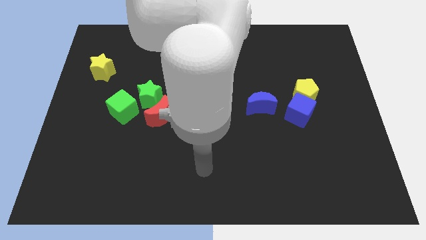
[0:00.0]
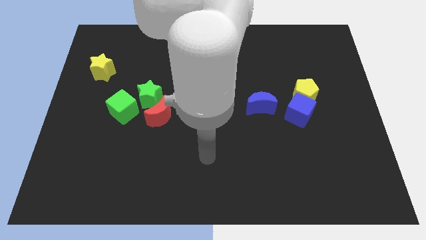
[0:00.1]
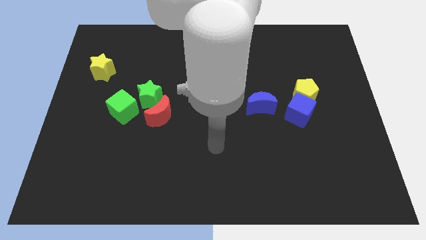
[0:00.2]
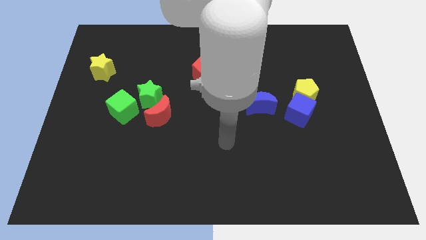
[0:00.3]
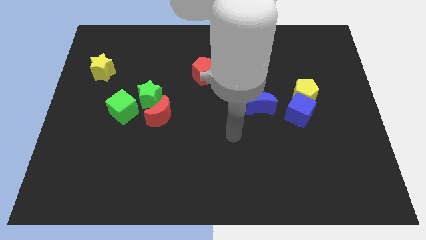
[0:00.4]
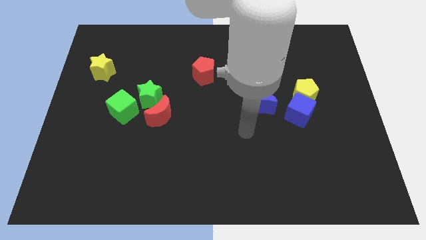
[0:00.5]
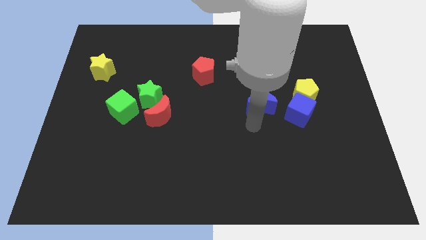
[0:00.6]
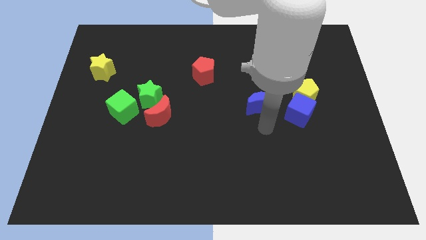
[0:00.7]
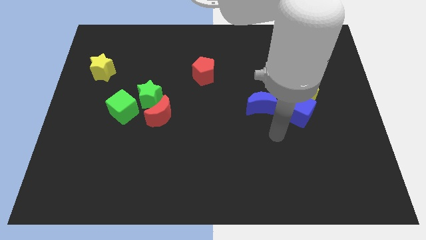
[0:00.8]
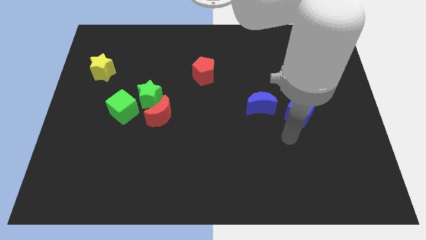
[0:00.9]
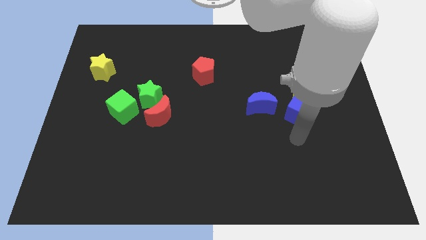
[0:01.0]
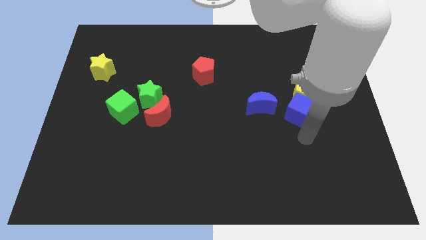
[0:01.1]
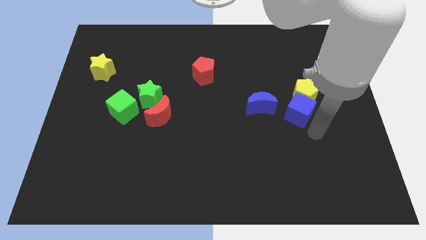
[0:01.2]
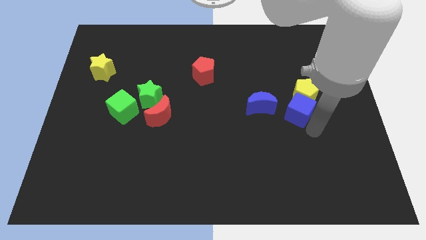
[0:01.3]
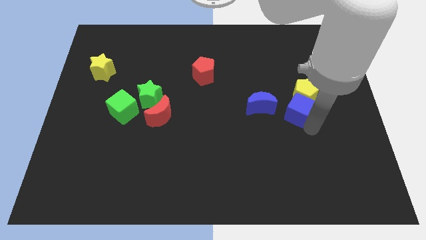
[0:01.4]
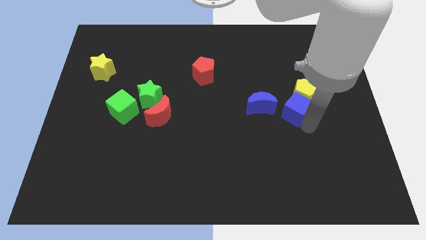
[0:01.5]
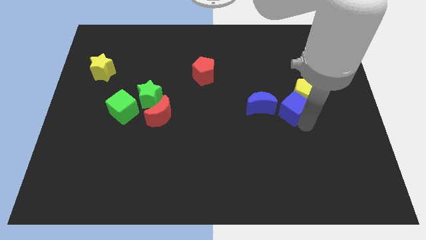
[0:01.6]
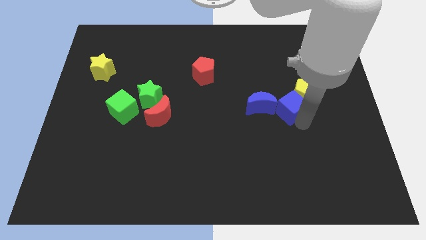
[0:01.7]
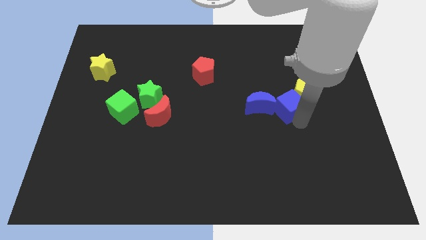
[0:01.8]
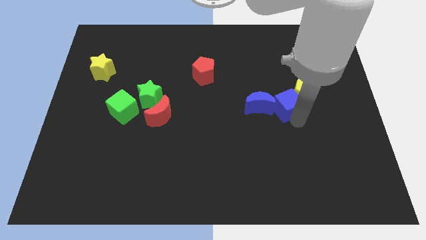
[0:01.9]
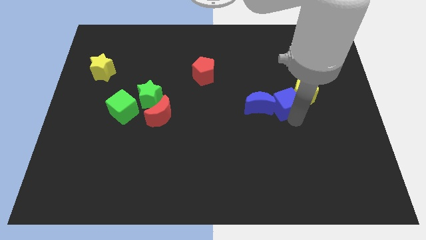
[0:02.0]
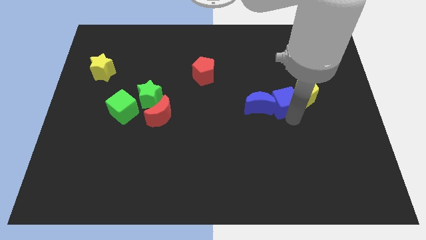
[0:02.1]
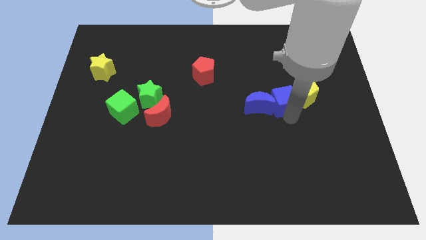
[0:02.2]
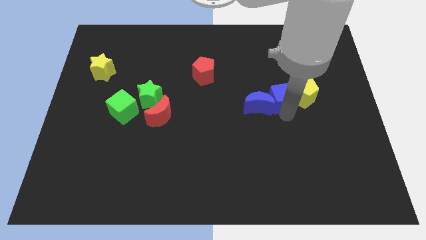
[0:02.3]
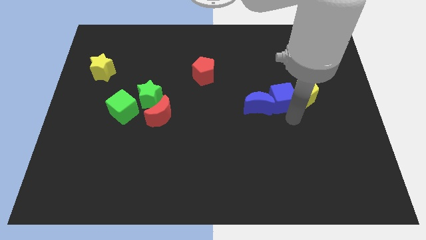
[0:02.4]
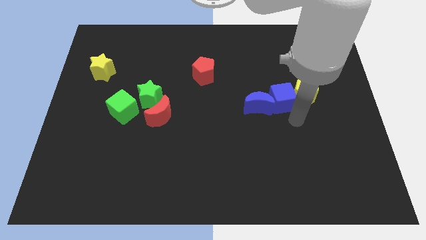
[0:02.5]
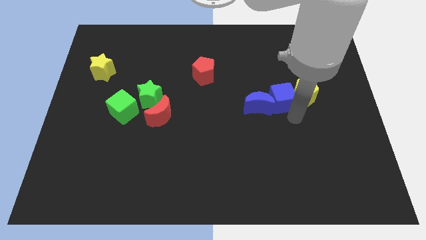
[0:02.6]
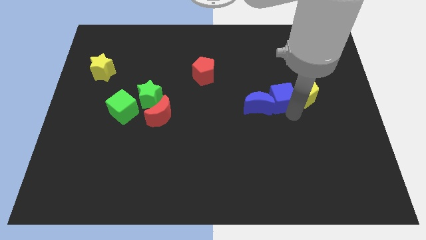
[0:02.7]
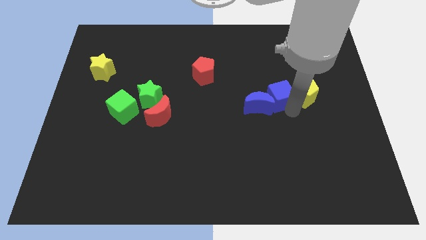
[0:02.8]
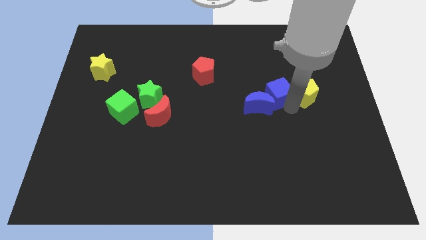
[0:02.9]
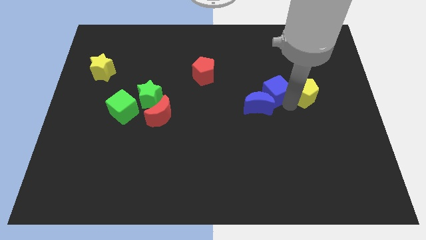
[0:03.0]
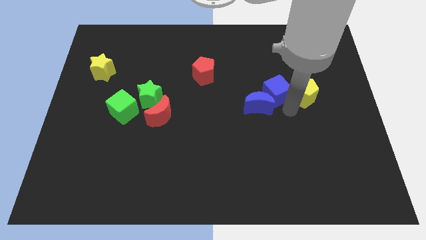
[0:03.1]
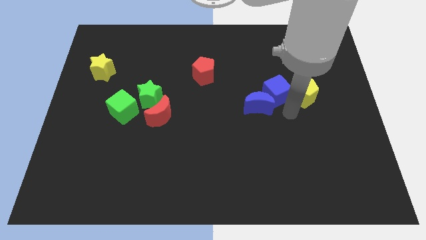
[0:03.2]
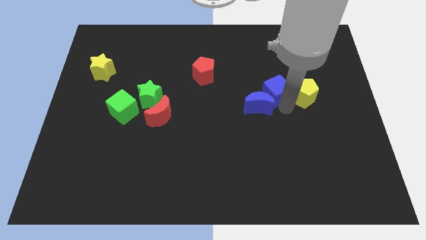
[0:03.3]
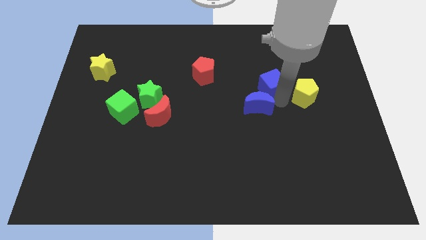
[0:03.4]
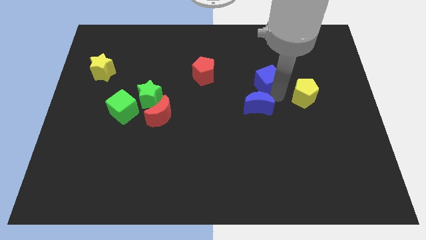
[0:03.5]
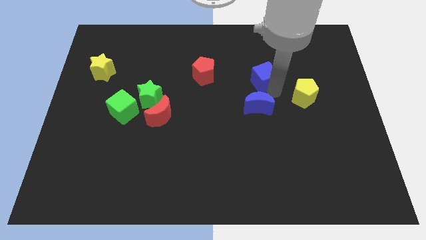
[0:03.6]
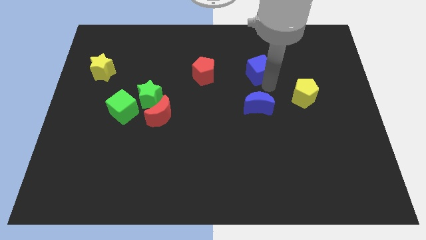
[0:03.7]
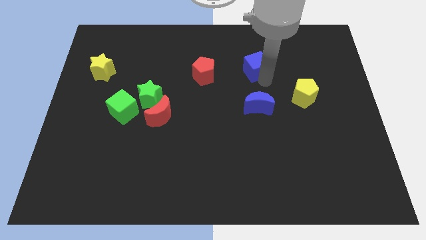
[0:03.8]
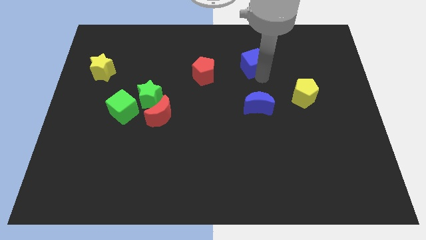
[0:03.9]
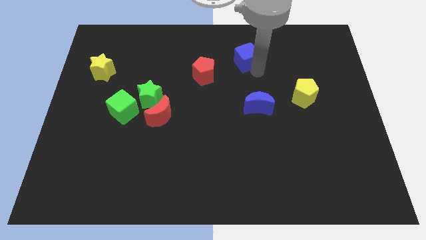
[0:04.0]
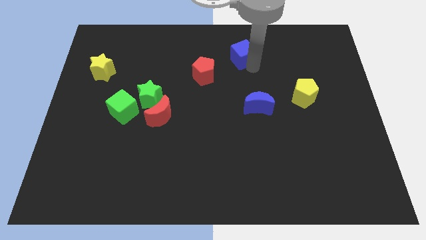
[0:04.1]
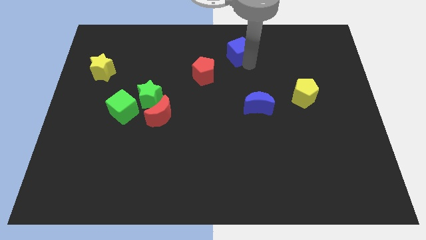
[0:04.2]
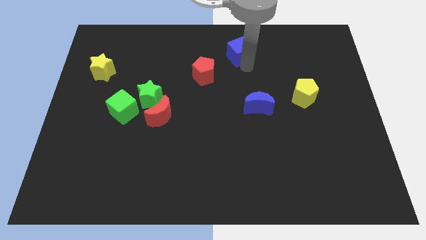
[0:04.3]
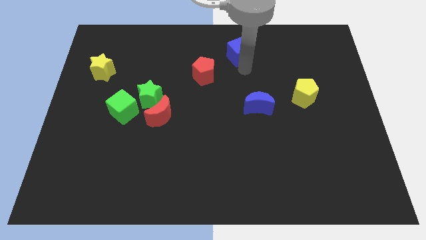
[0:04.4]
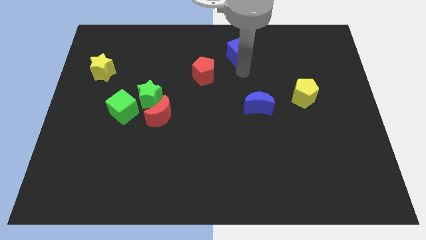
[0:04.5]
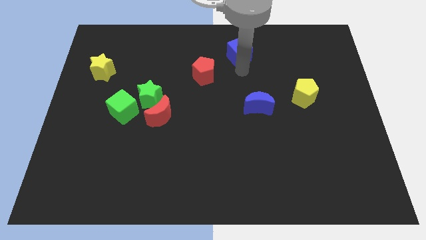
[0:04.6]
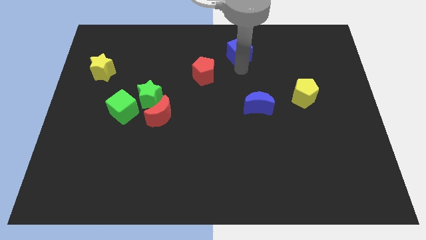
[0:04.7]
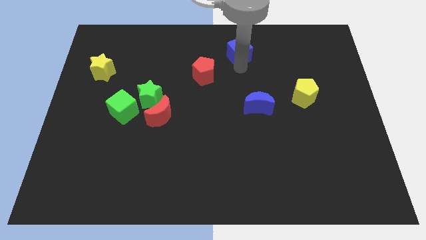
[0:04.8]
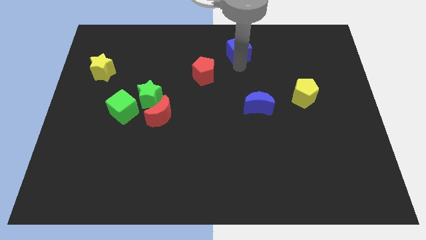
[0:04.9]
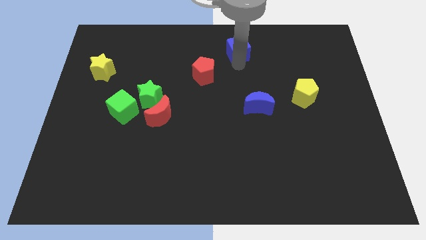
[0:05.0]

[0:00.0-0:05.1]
slide the blue cube to the top

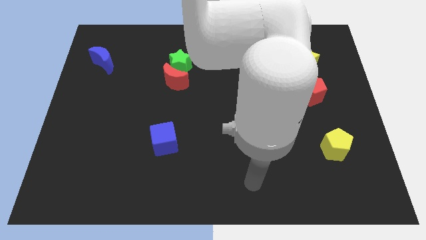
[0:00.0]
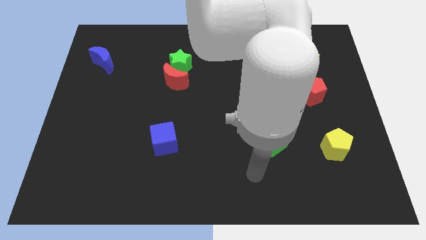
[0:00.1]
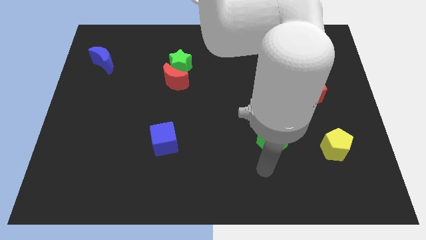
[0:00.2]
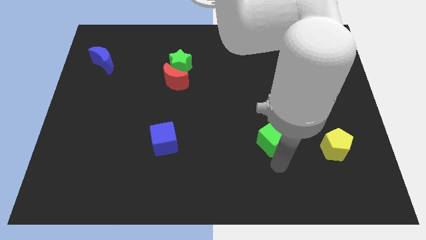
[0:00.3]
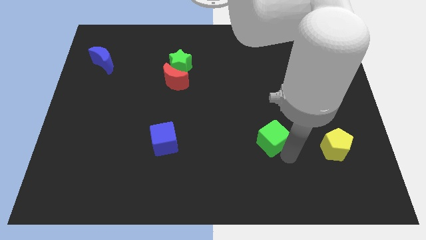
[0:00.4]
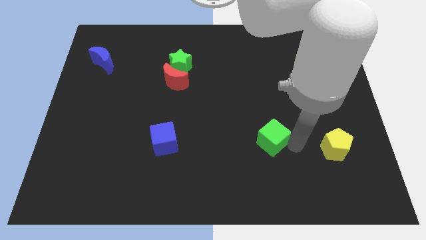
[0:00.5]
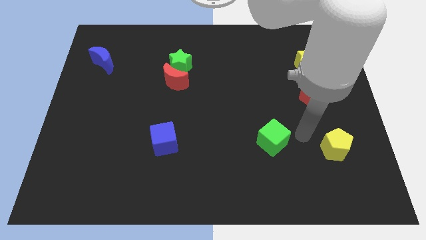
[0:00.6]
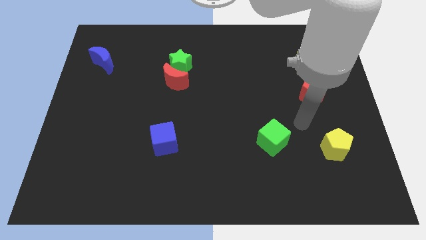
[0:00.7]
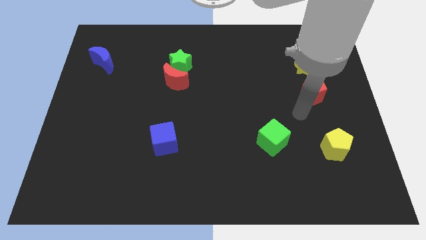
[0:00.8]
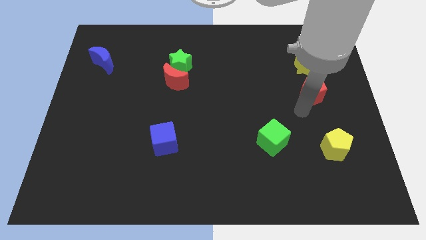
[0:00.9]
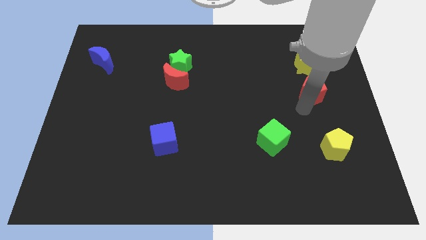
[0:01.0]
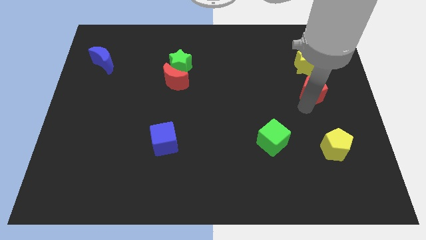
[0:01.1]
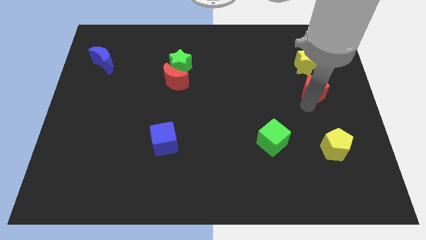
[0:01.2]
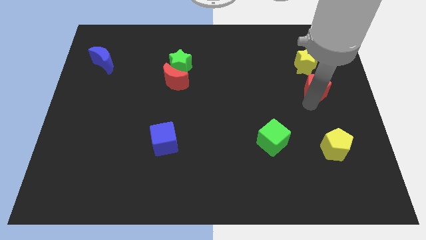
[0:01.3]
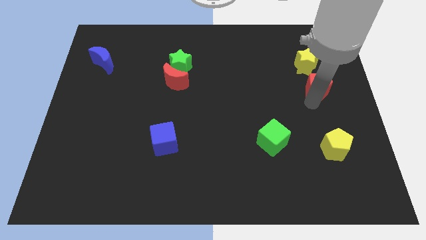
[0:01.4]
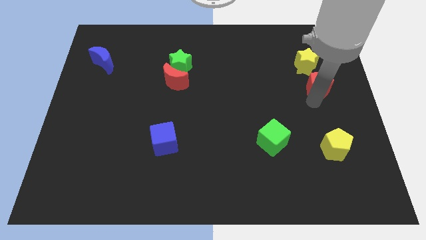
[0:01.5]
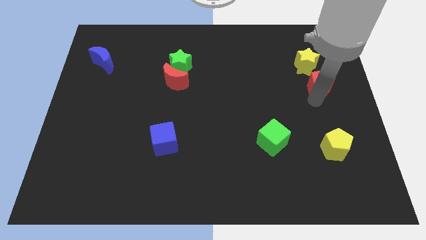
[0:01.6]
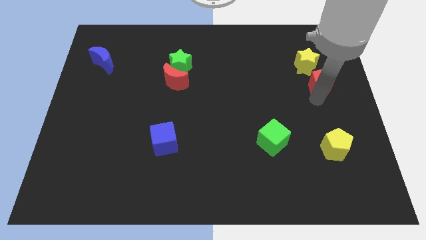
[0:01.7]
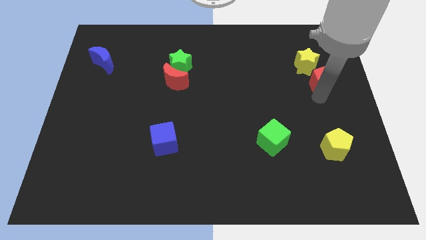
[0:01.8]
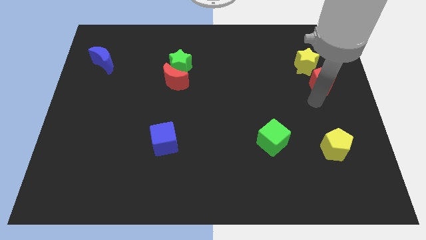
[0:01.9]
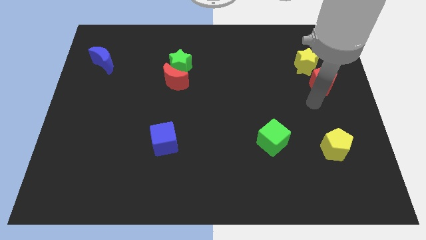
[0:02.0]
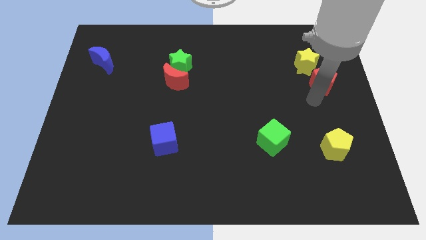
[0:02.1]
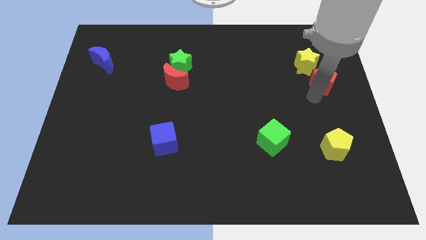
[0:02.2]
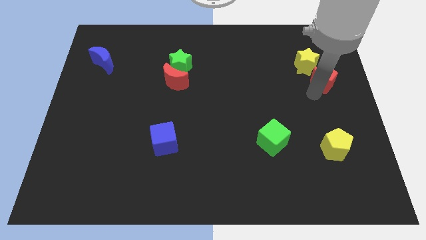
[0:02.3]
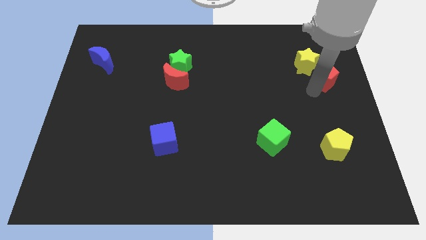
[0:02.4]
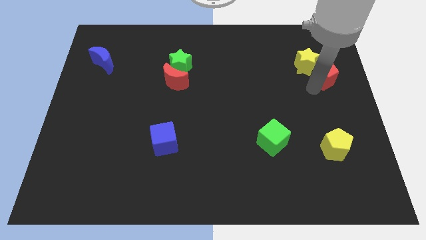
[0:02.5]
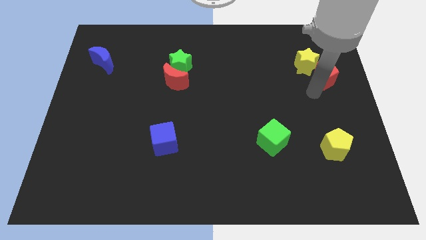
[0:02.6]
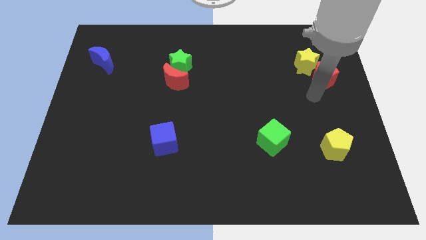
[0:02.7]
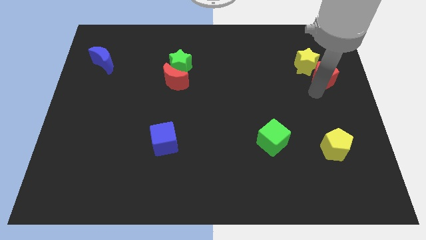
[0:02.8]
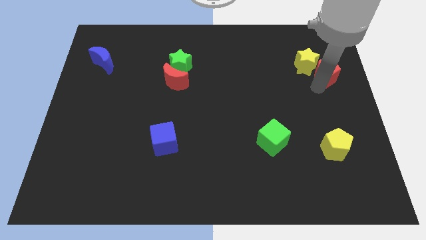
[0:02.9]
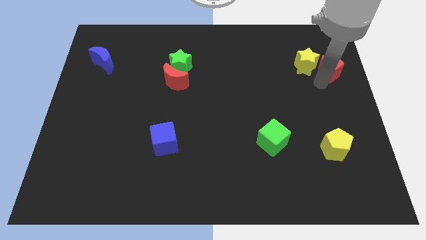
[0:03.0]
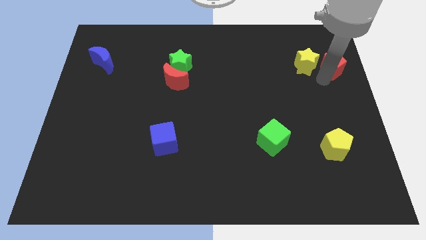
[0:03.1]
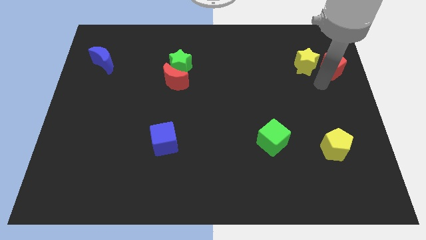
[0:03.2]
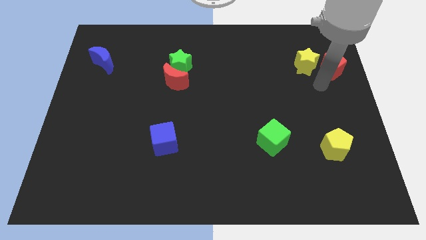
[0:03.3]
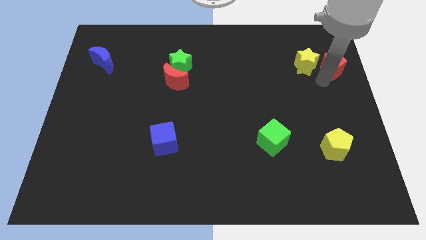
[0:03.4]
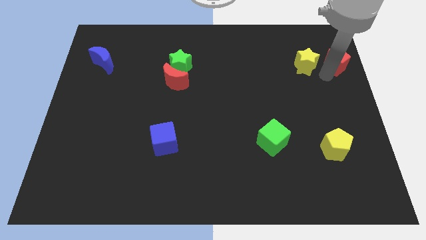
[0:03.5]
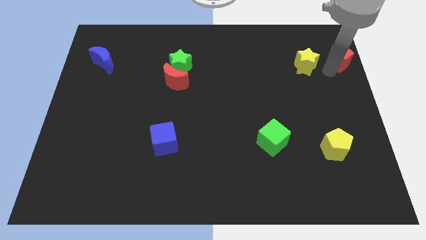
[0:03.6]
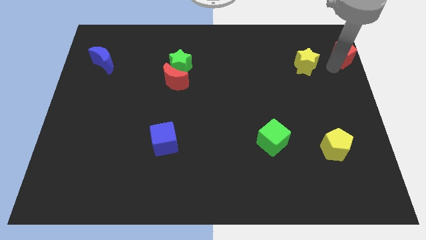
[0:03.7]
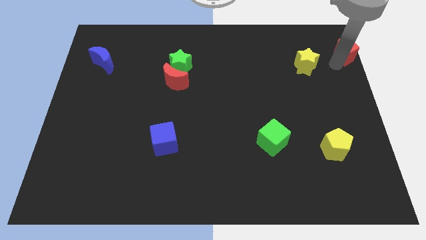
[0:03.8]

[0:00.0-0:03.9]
move the red pentagon to the upper right corner
